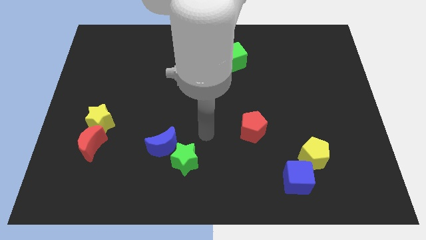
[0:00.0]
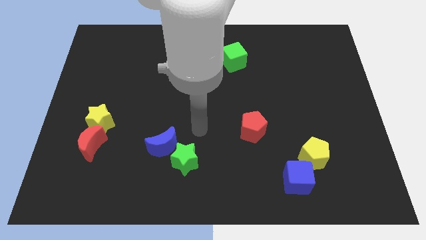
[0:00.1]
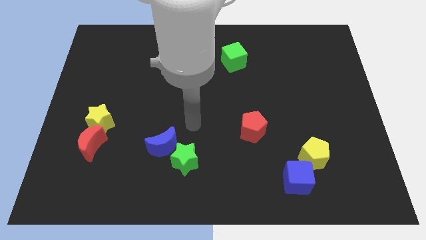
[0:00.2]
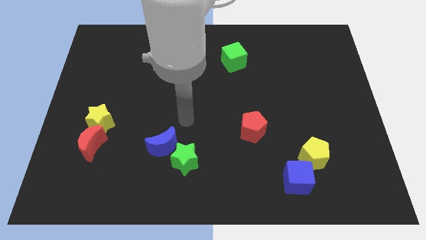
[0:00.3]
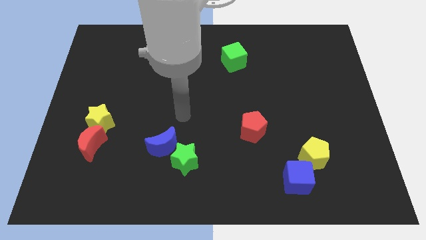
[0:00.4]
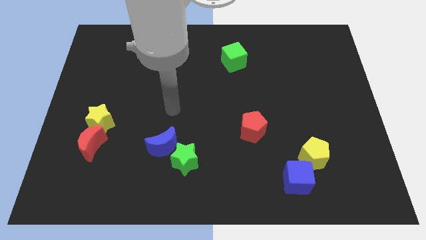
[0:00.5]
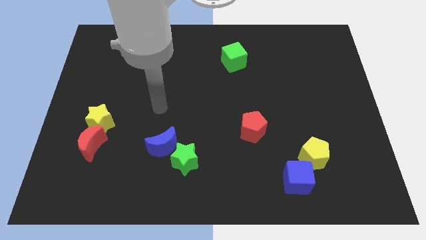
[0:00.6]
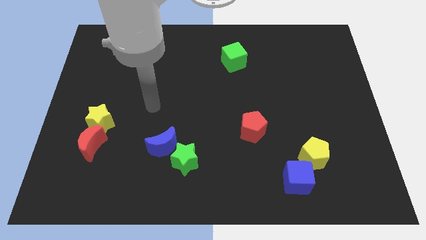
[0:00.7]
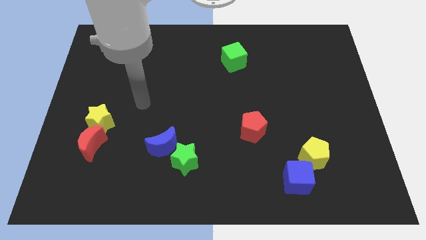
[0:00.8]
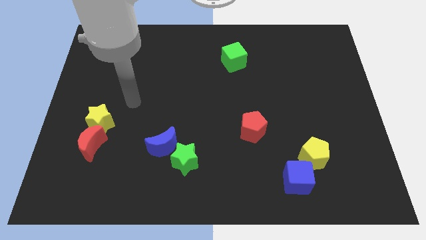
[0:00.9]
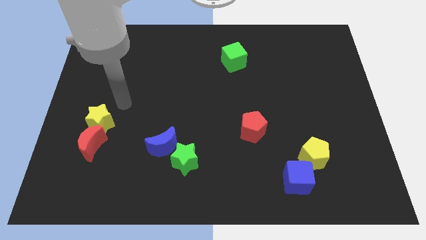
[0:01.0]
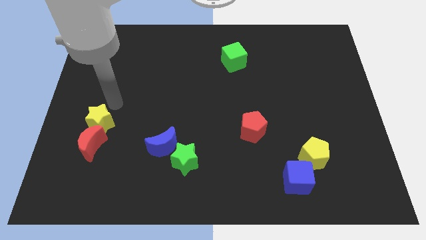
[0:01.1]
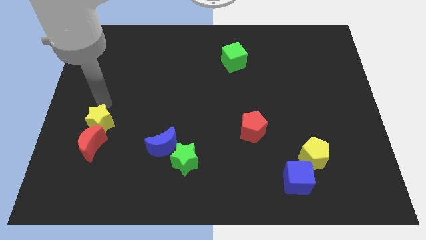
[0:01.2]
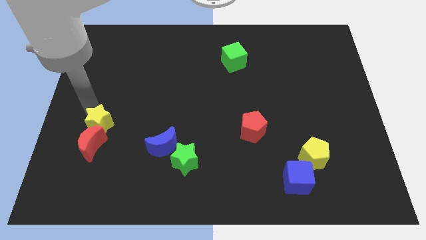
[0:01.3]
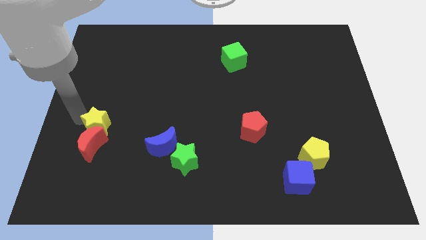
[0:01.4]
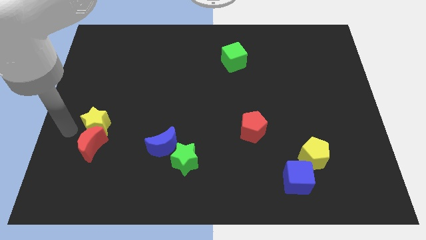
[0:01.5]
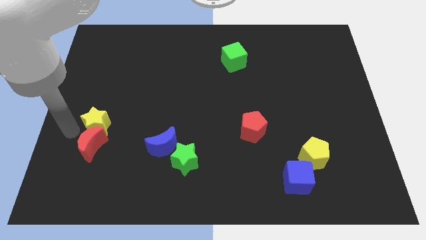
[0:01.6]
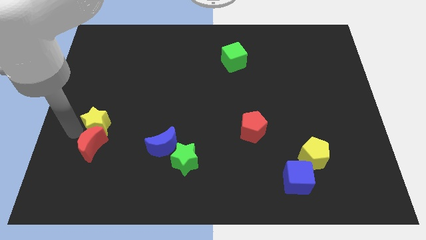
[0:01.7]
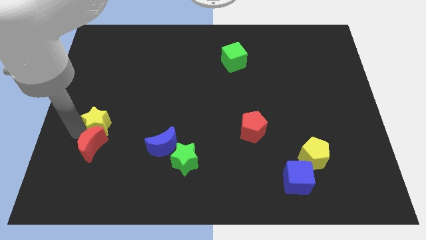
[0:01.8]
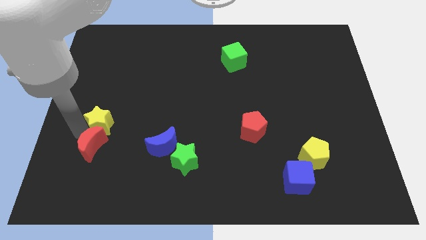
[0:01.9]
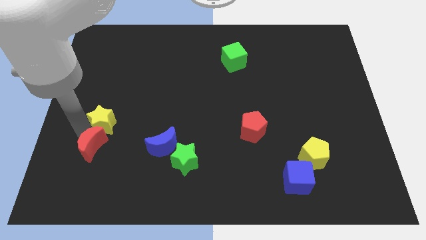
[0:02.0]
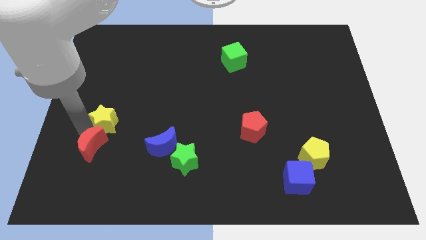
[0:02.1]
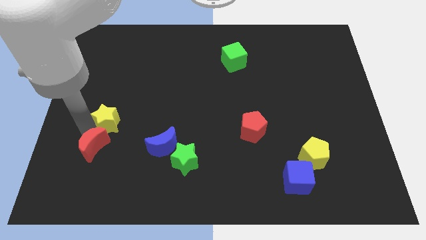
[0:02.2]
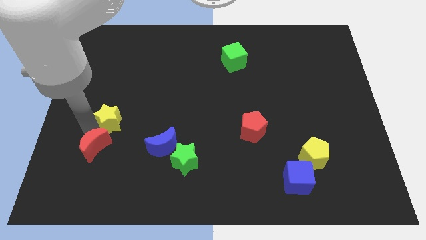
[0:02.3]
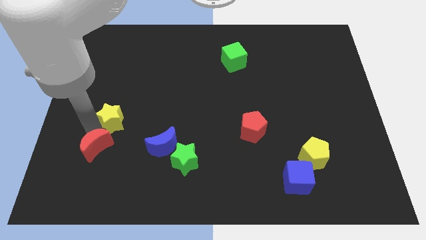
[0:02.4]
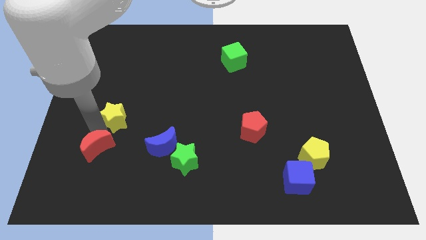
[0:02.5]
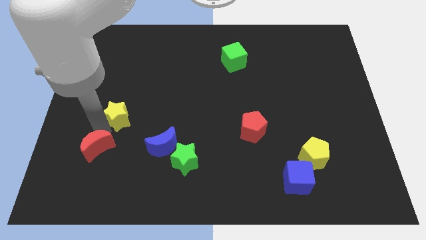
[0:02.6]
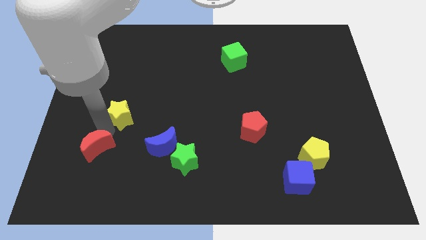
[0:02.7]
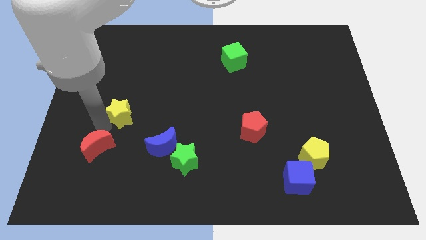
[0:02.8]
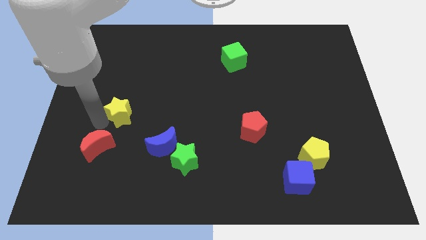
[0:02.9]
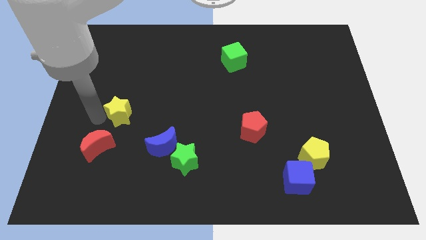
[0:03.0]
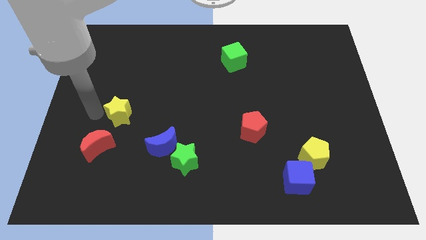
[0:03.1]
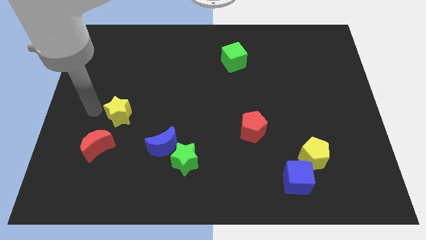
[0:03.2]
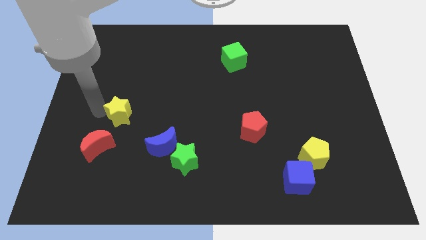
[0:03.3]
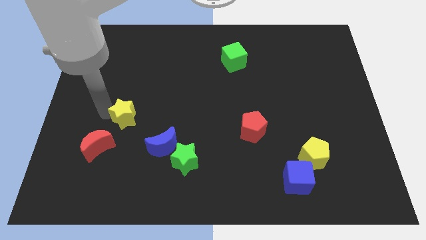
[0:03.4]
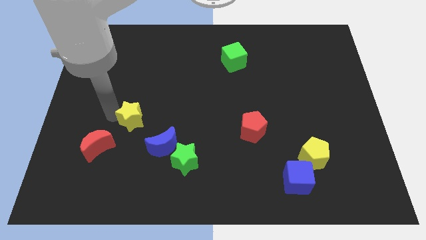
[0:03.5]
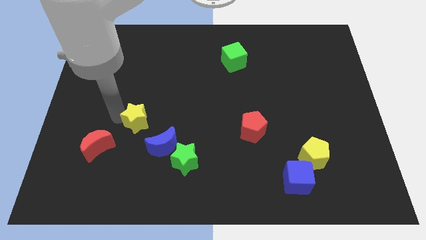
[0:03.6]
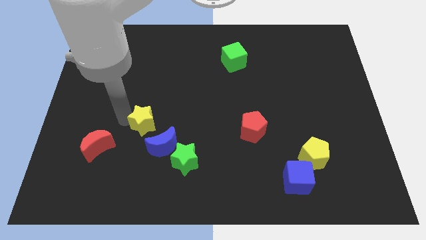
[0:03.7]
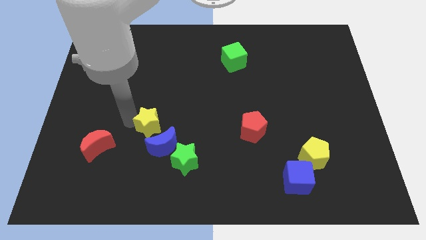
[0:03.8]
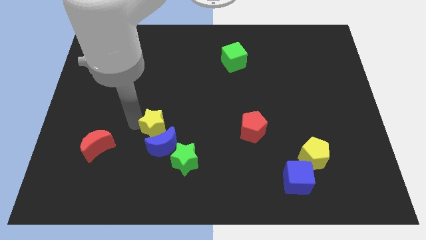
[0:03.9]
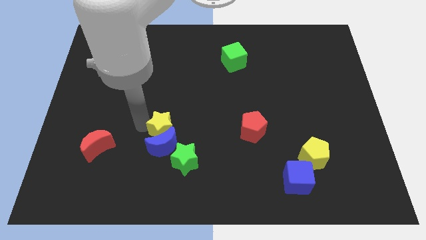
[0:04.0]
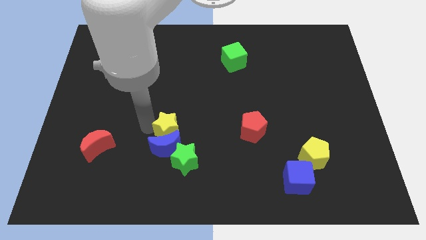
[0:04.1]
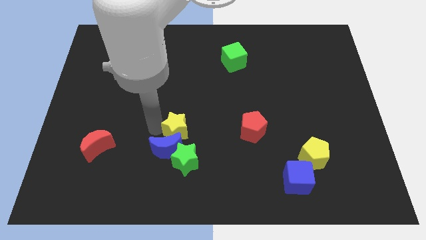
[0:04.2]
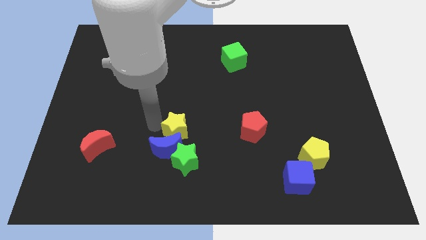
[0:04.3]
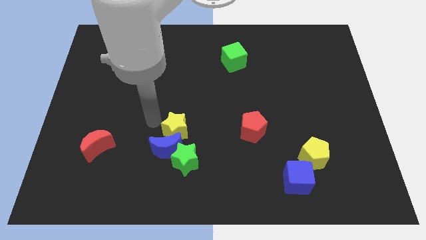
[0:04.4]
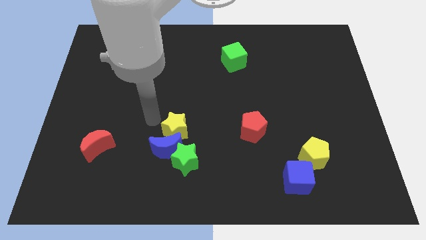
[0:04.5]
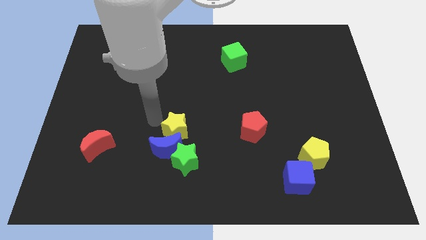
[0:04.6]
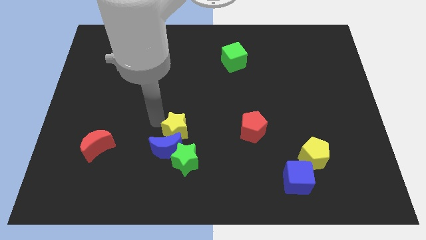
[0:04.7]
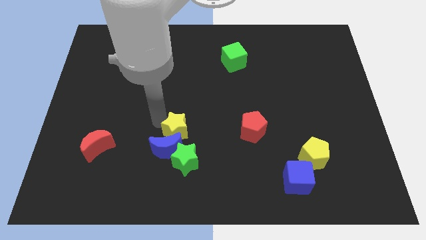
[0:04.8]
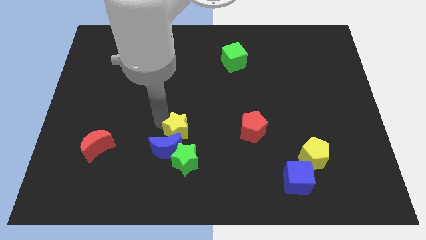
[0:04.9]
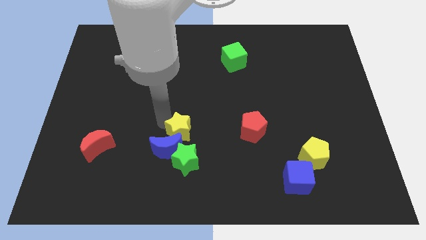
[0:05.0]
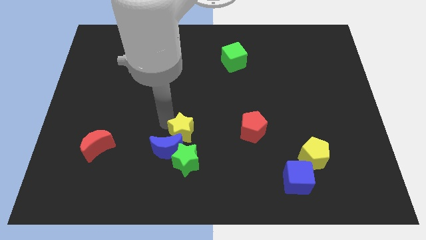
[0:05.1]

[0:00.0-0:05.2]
push the yellow star just right of the blue moon

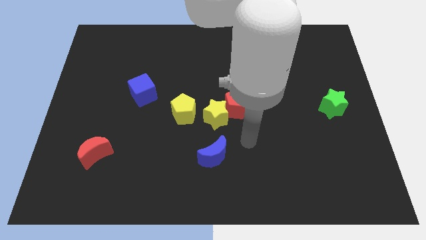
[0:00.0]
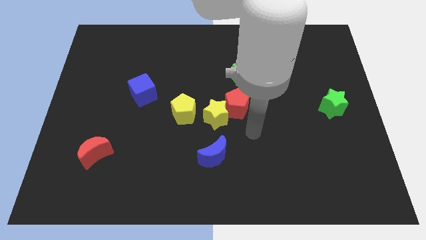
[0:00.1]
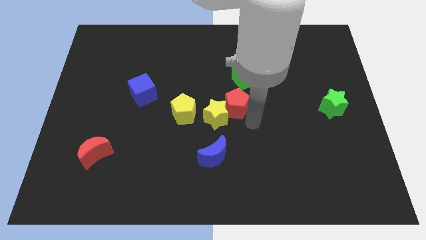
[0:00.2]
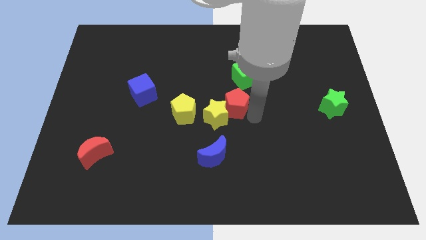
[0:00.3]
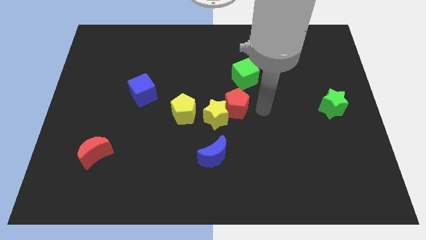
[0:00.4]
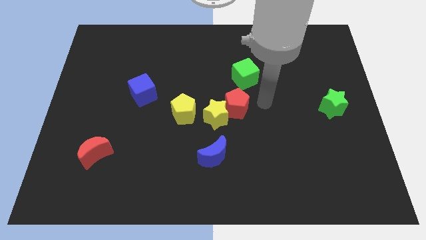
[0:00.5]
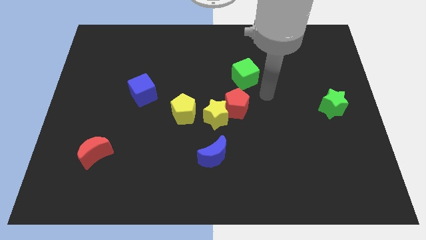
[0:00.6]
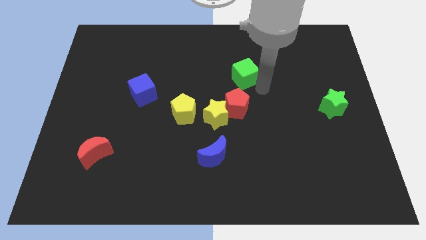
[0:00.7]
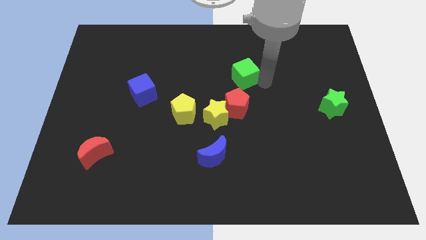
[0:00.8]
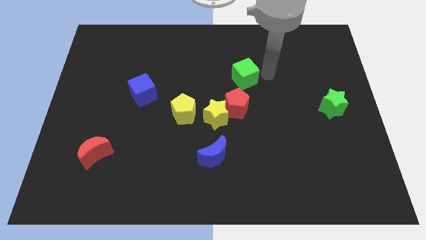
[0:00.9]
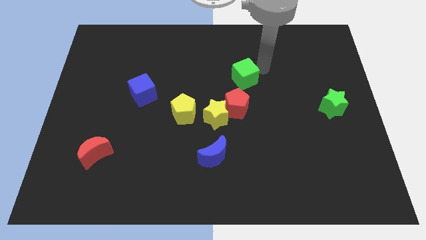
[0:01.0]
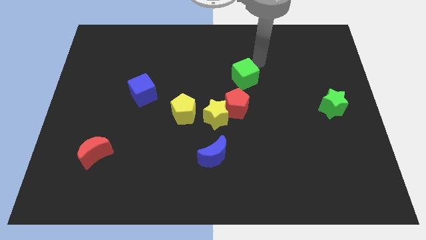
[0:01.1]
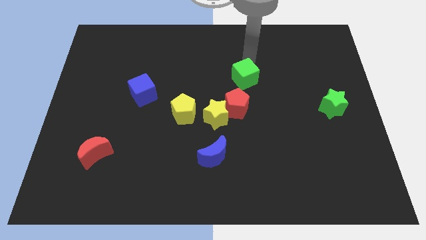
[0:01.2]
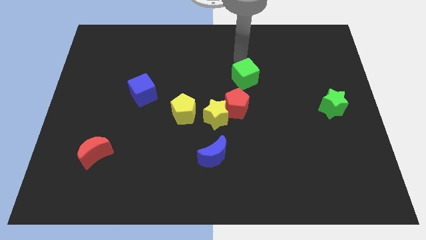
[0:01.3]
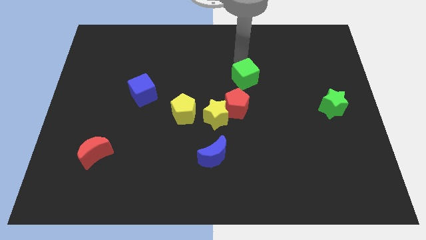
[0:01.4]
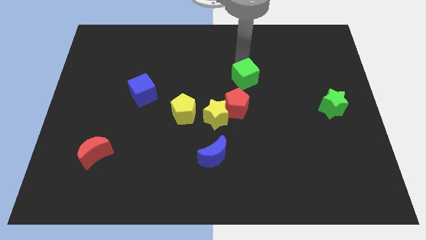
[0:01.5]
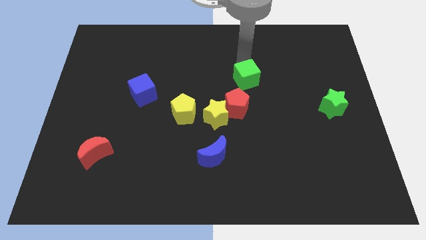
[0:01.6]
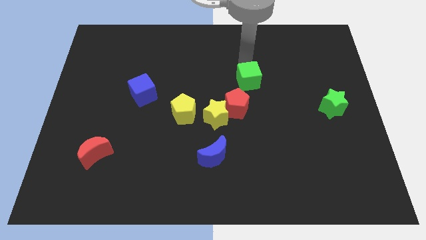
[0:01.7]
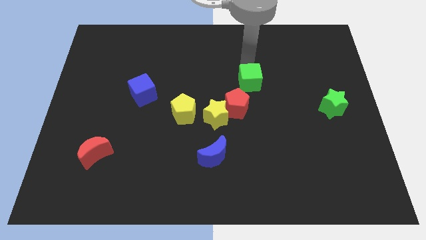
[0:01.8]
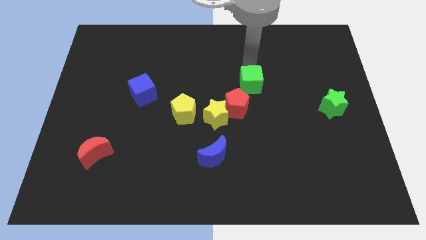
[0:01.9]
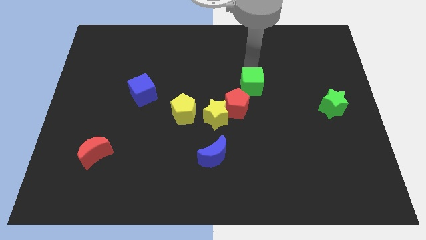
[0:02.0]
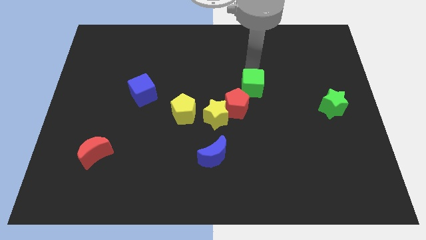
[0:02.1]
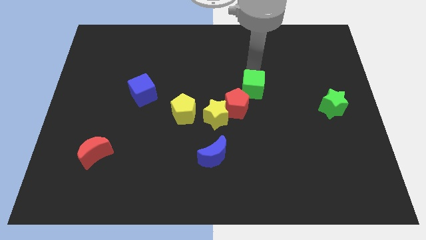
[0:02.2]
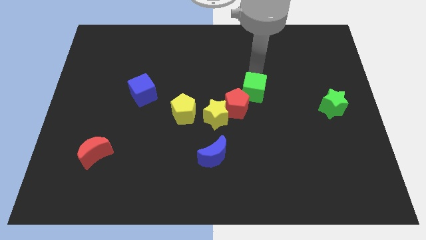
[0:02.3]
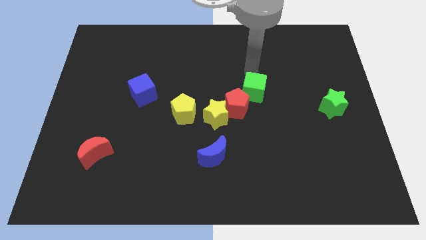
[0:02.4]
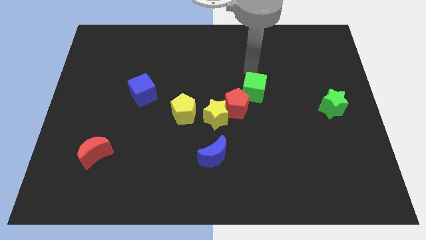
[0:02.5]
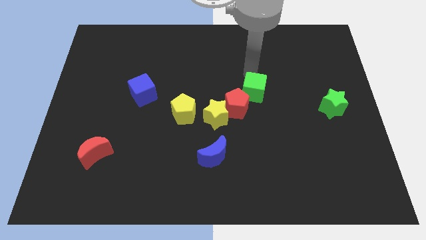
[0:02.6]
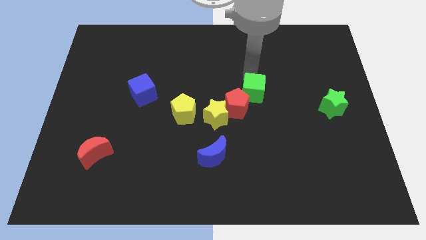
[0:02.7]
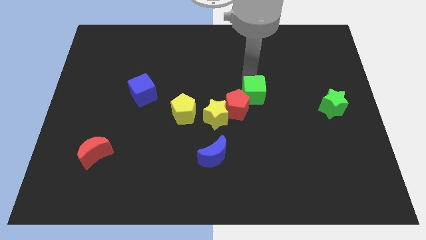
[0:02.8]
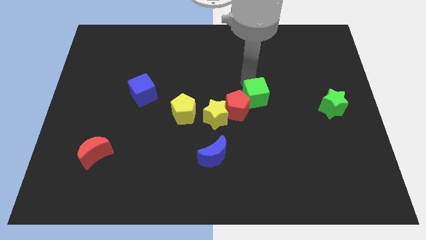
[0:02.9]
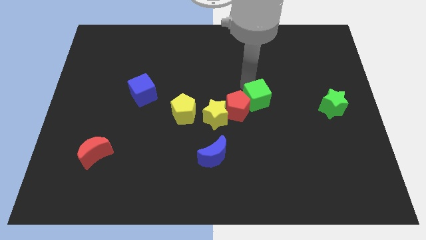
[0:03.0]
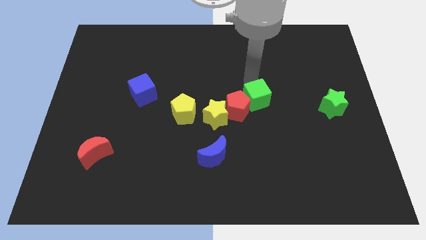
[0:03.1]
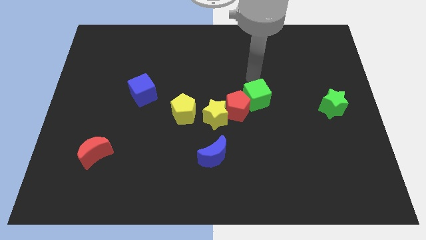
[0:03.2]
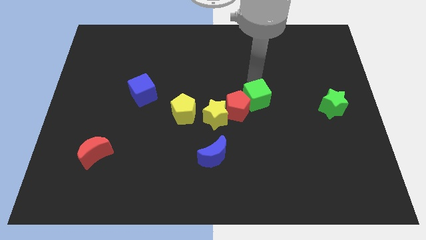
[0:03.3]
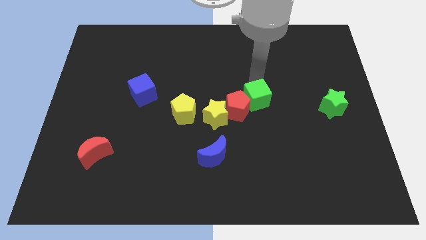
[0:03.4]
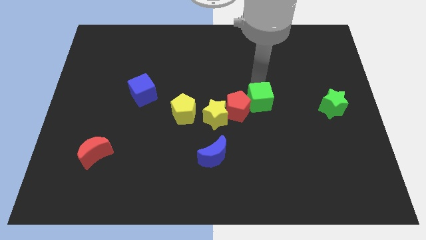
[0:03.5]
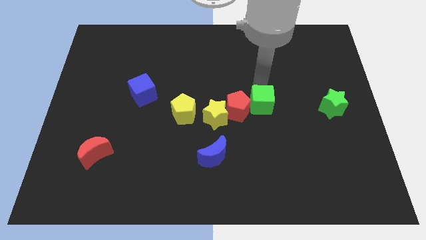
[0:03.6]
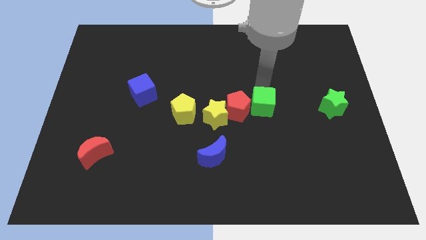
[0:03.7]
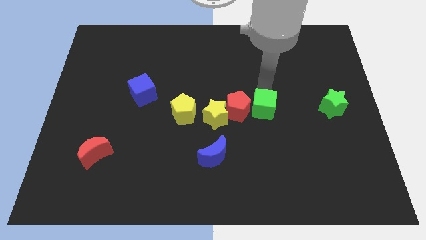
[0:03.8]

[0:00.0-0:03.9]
put the green cube diagonally down and to the right of the red pentagon
